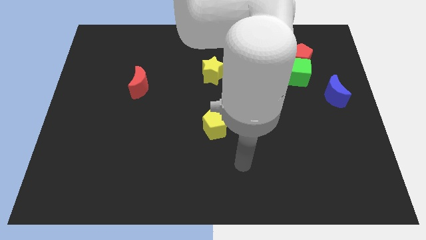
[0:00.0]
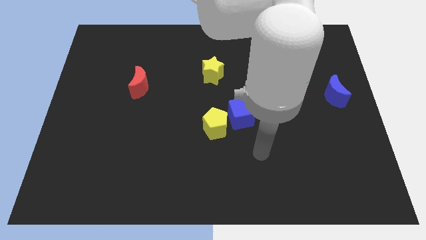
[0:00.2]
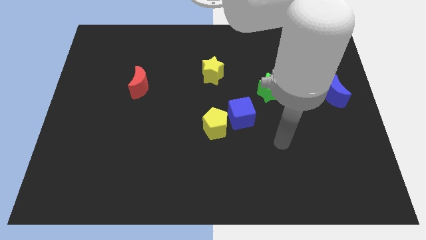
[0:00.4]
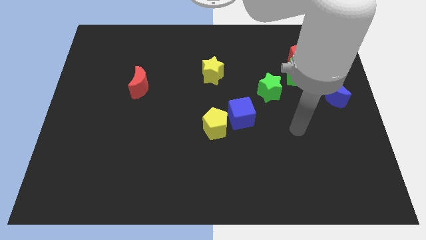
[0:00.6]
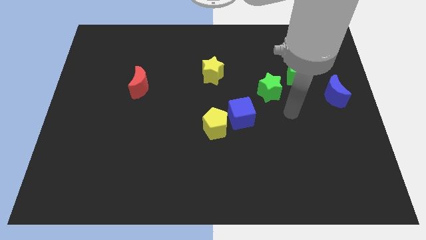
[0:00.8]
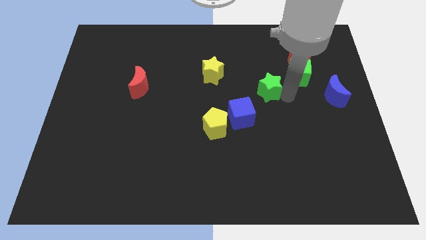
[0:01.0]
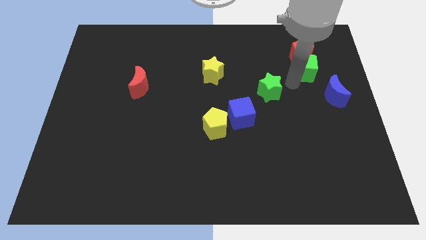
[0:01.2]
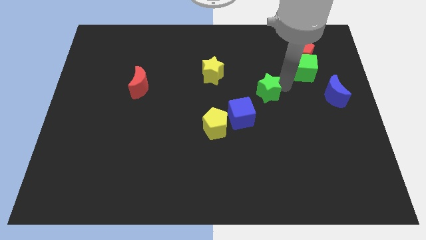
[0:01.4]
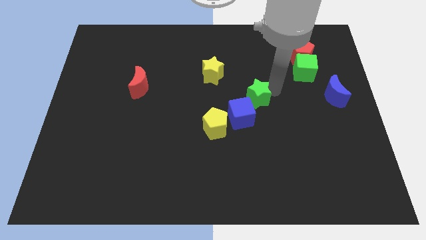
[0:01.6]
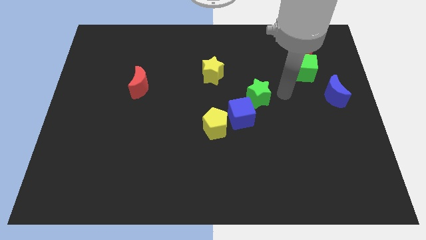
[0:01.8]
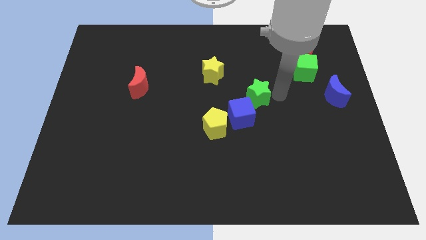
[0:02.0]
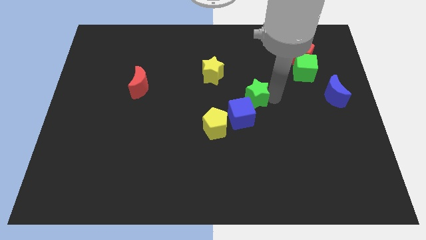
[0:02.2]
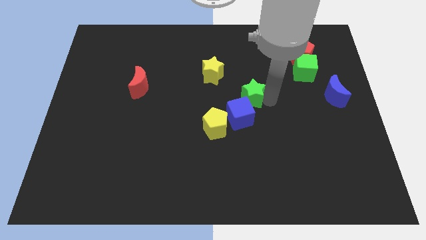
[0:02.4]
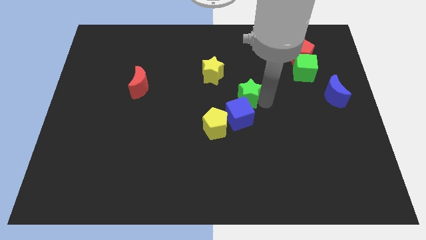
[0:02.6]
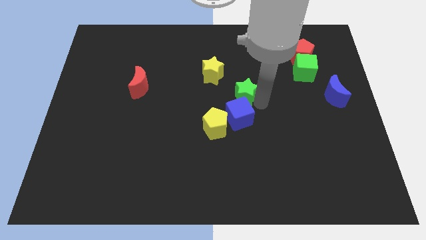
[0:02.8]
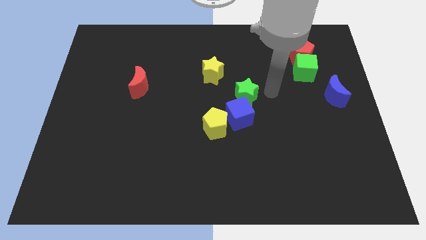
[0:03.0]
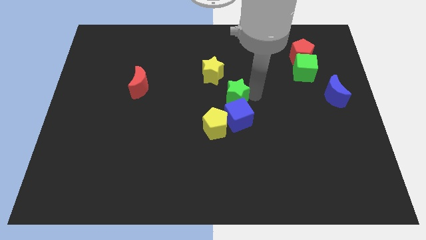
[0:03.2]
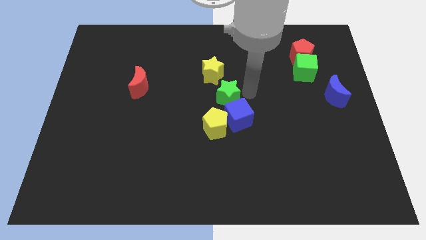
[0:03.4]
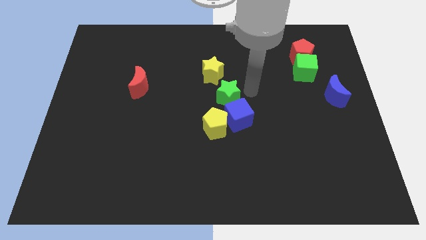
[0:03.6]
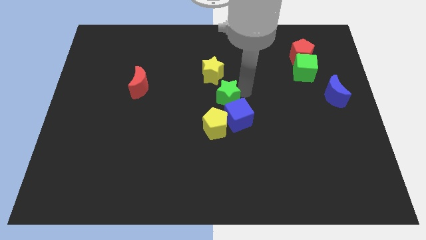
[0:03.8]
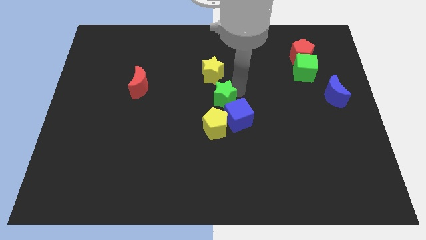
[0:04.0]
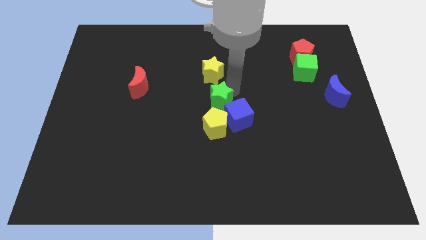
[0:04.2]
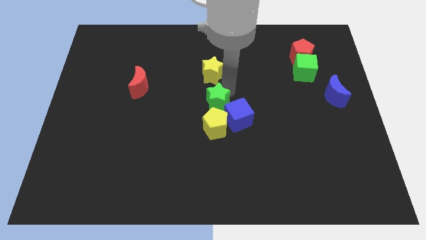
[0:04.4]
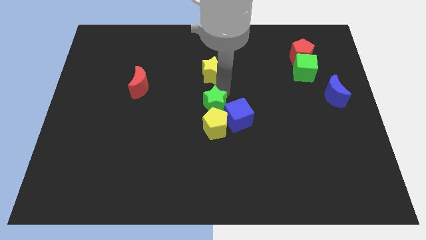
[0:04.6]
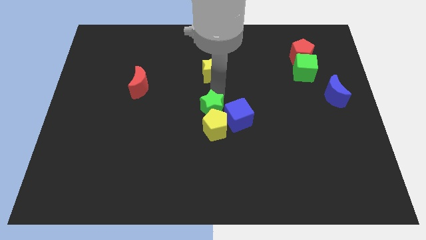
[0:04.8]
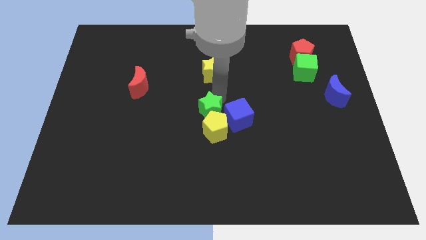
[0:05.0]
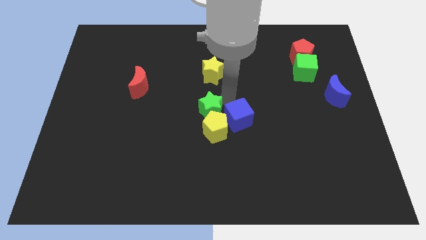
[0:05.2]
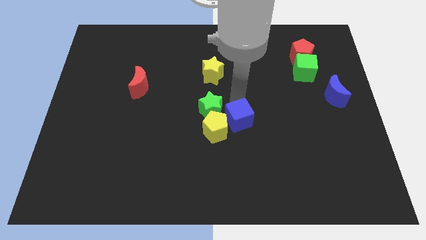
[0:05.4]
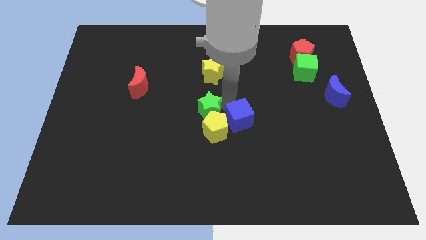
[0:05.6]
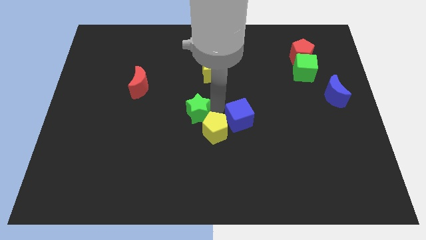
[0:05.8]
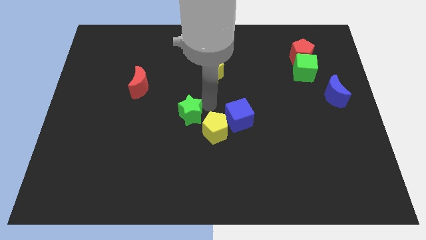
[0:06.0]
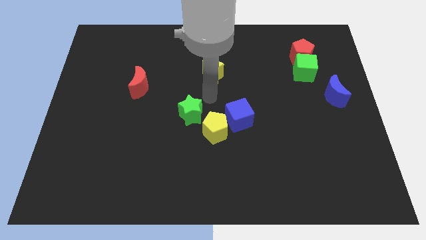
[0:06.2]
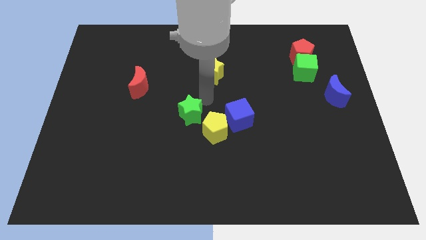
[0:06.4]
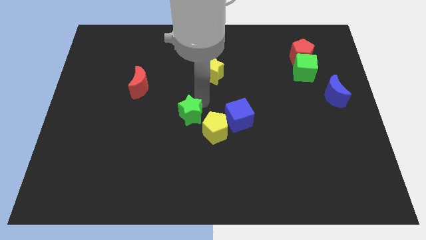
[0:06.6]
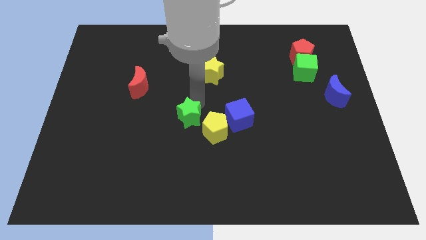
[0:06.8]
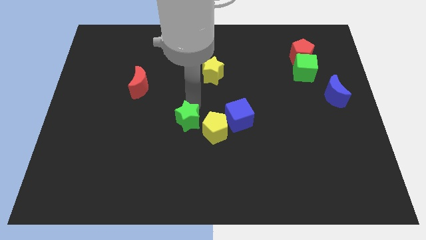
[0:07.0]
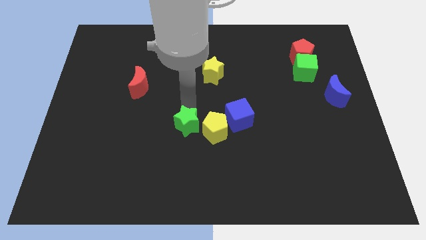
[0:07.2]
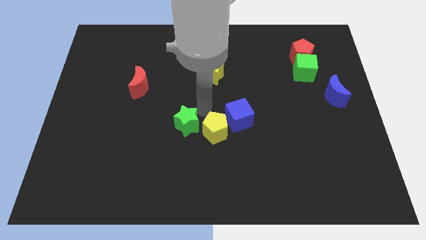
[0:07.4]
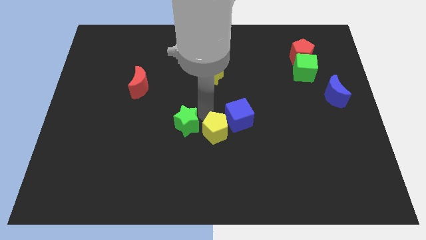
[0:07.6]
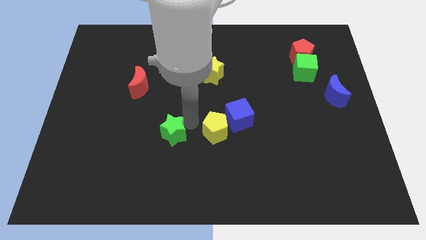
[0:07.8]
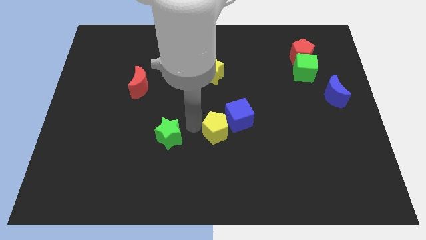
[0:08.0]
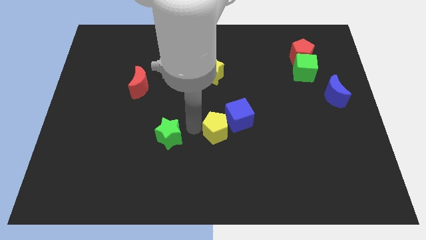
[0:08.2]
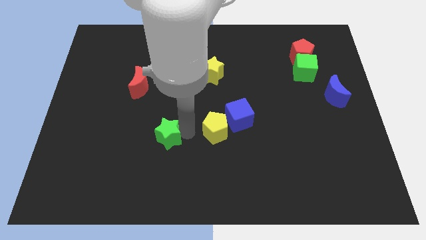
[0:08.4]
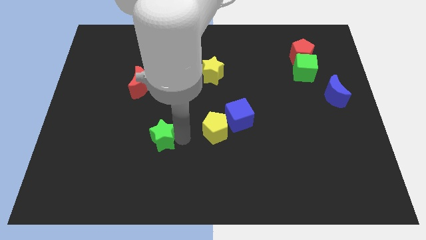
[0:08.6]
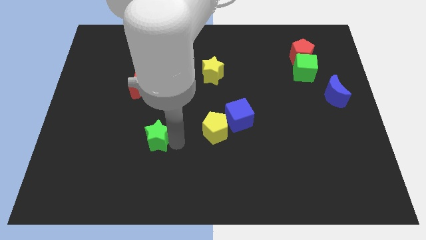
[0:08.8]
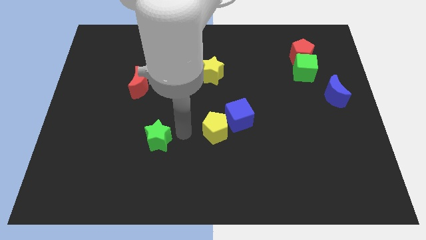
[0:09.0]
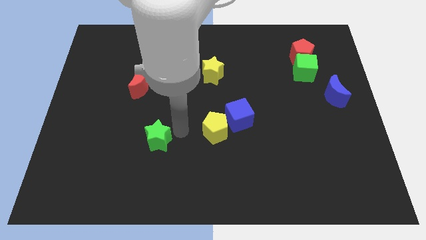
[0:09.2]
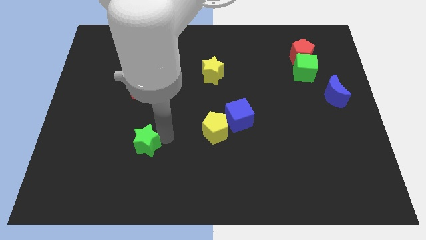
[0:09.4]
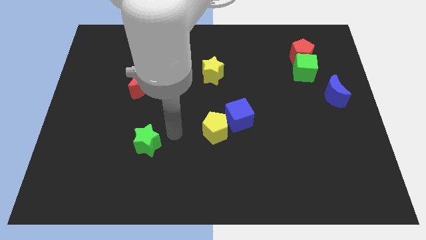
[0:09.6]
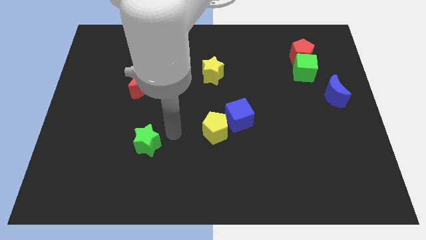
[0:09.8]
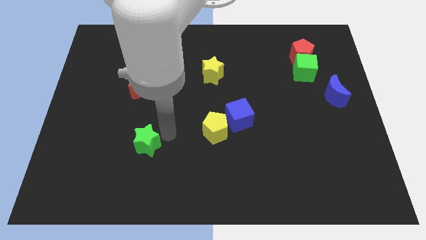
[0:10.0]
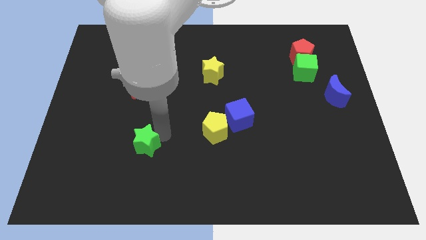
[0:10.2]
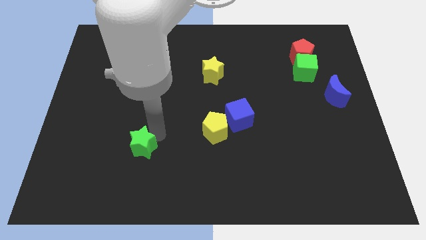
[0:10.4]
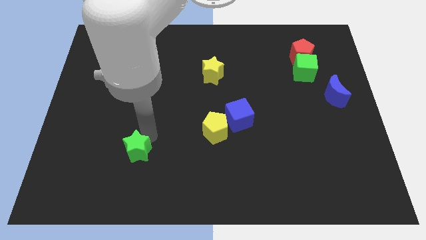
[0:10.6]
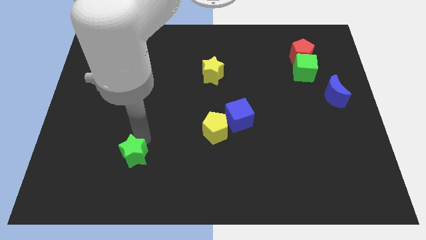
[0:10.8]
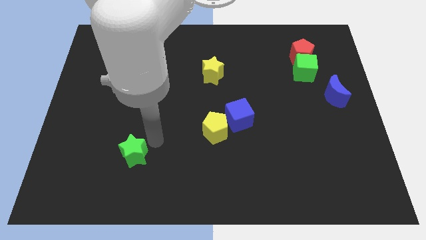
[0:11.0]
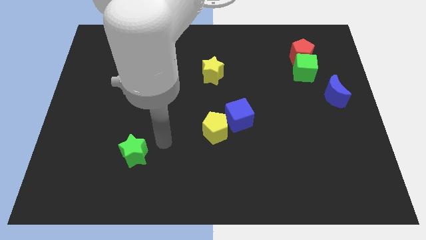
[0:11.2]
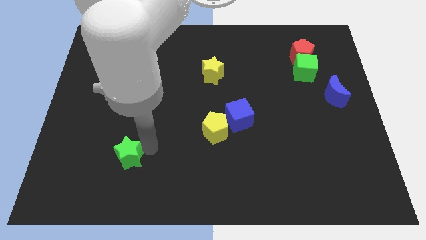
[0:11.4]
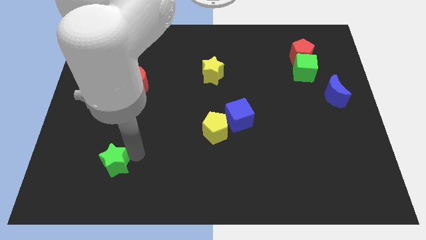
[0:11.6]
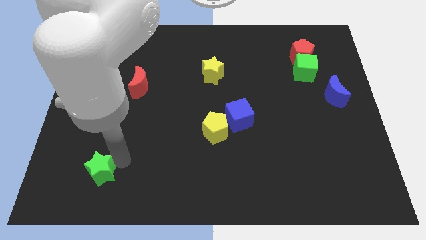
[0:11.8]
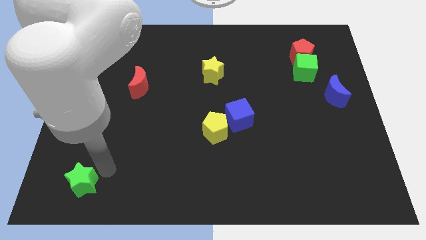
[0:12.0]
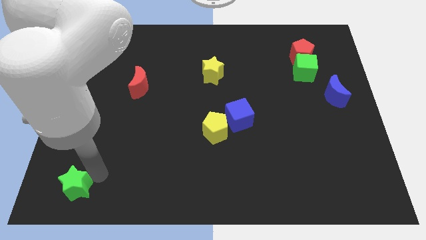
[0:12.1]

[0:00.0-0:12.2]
move the green star to the bottom left

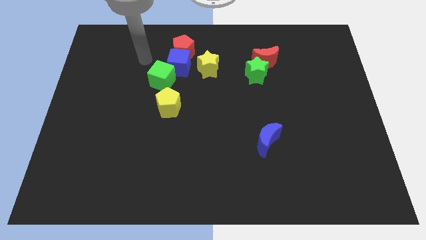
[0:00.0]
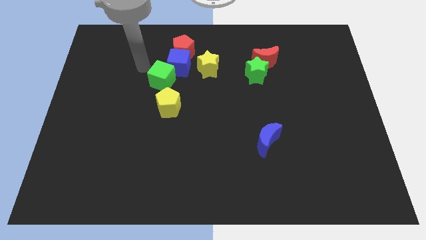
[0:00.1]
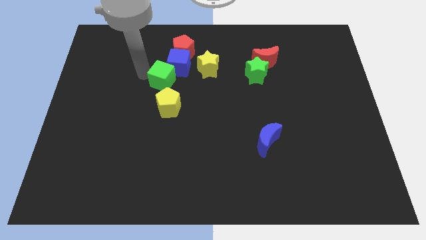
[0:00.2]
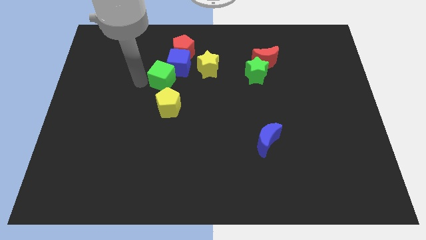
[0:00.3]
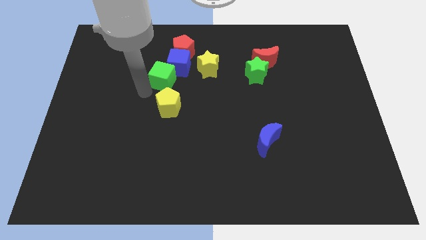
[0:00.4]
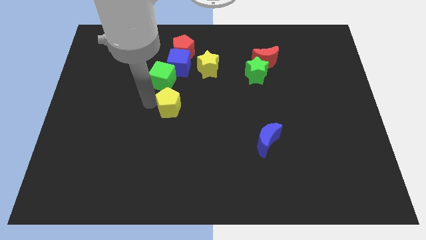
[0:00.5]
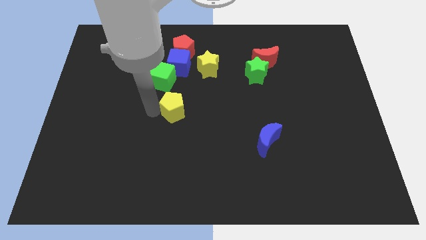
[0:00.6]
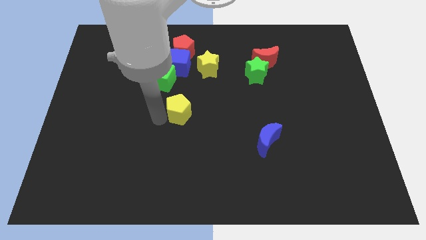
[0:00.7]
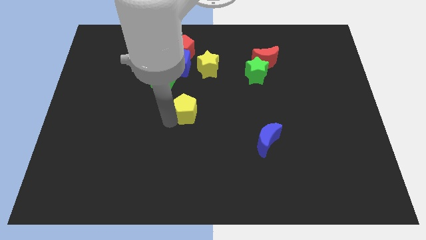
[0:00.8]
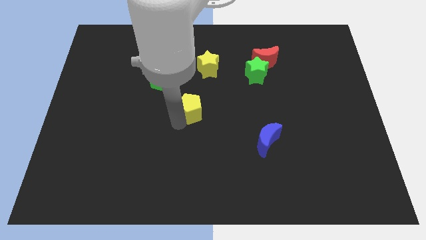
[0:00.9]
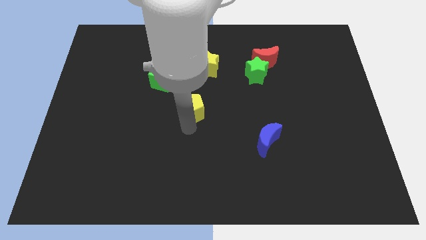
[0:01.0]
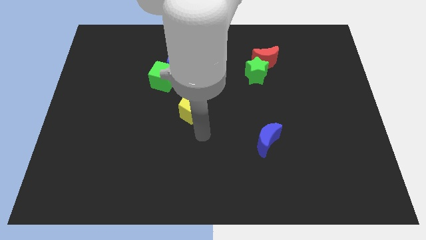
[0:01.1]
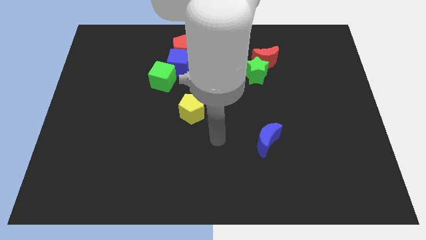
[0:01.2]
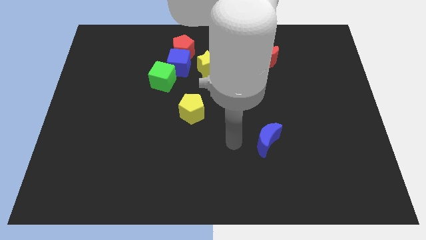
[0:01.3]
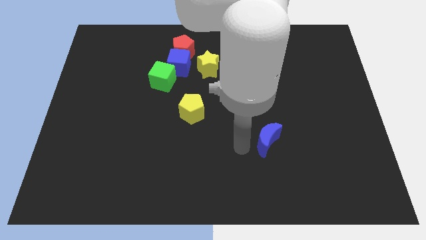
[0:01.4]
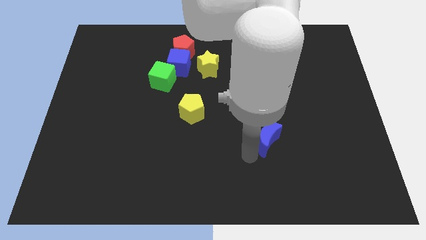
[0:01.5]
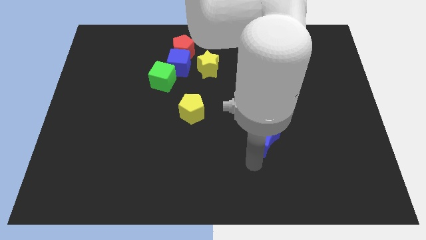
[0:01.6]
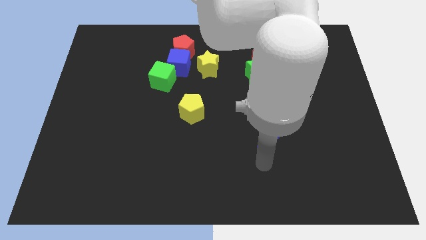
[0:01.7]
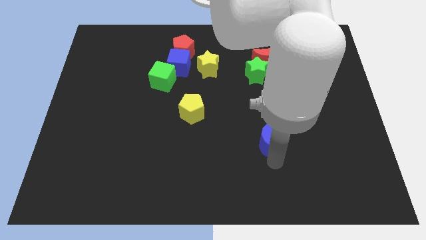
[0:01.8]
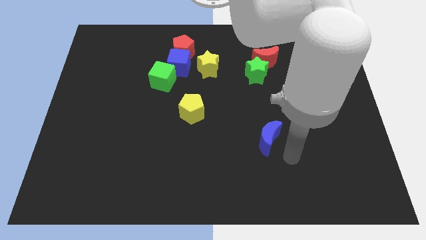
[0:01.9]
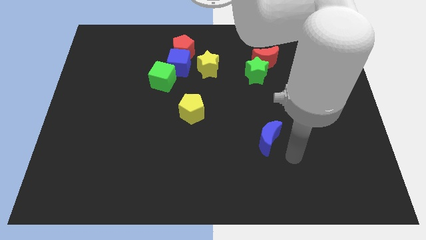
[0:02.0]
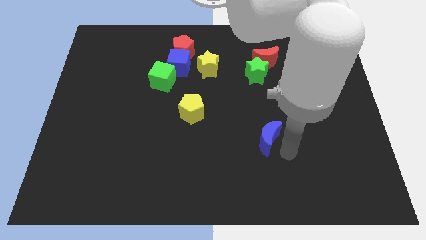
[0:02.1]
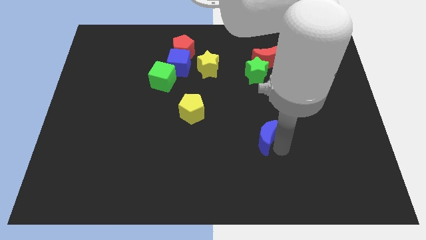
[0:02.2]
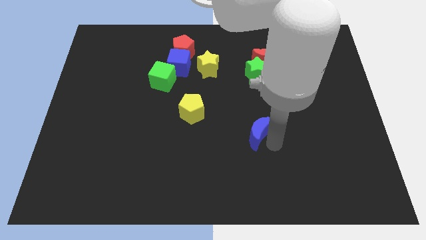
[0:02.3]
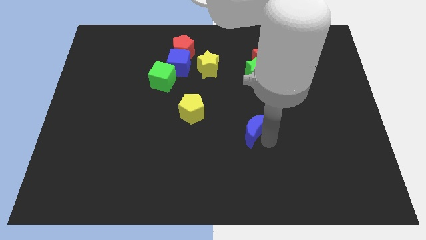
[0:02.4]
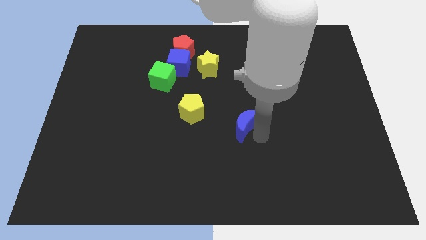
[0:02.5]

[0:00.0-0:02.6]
slide the blue moon to the center of the board
